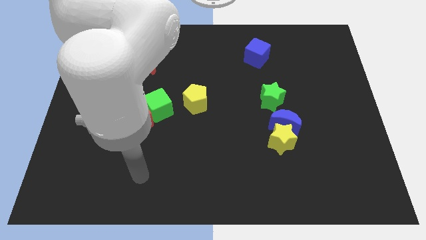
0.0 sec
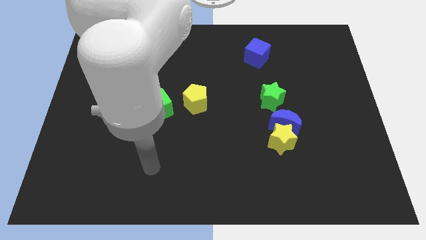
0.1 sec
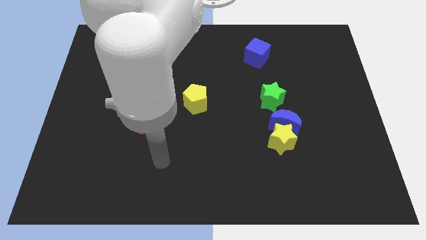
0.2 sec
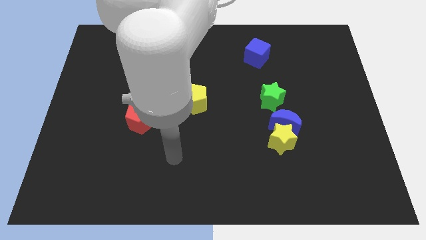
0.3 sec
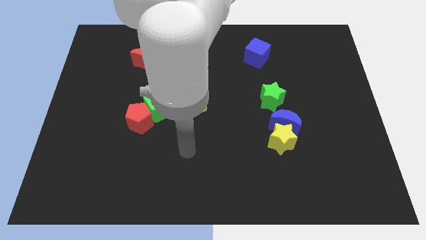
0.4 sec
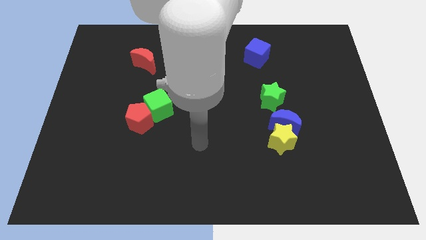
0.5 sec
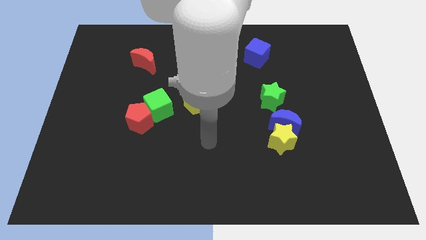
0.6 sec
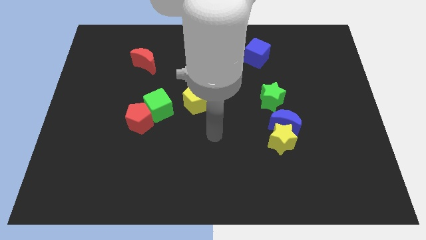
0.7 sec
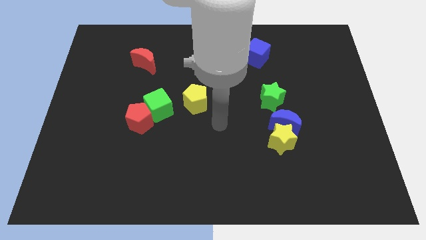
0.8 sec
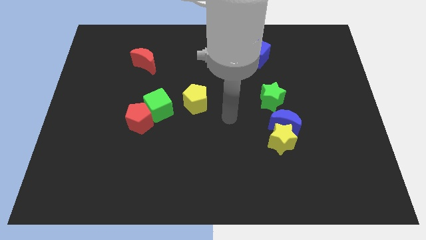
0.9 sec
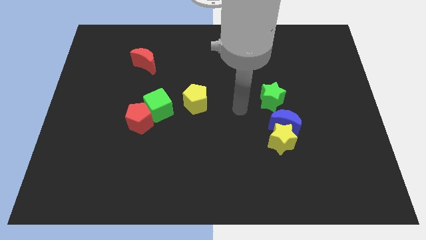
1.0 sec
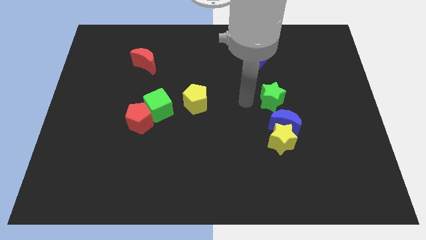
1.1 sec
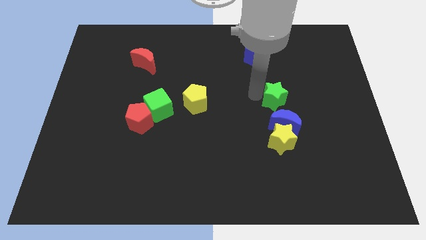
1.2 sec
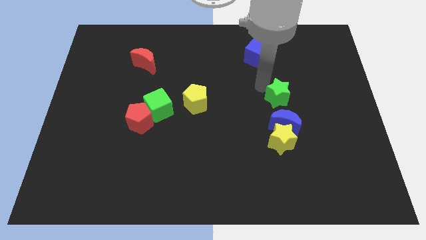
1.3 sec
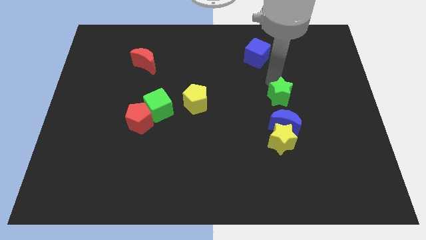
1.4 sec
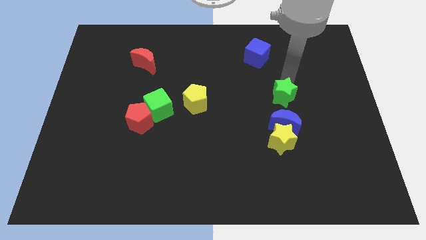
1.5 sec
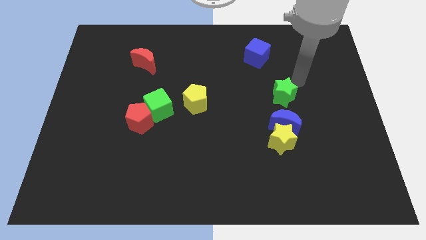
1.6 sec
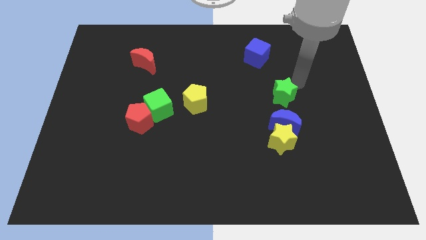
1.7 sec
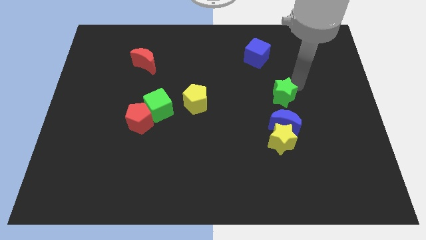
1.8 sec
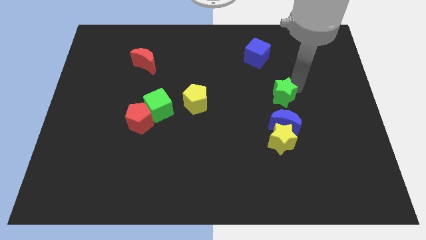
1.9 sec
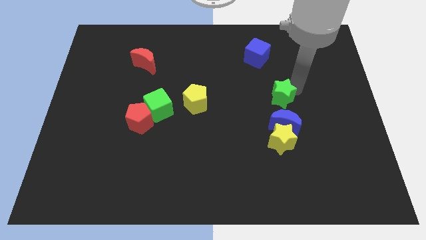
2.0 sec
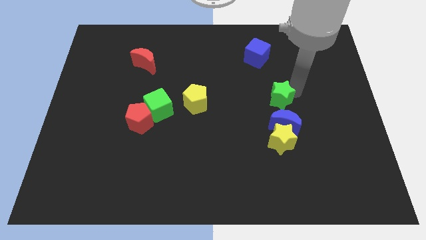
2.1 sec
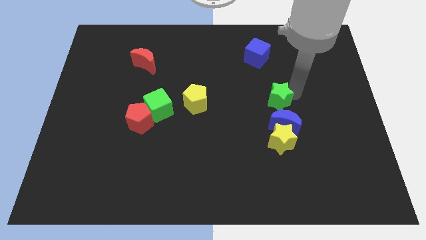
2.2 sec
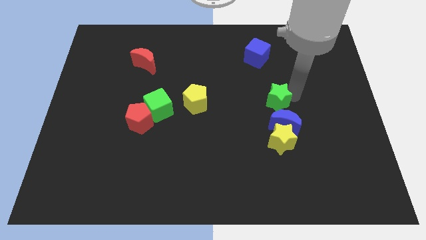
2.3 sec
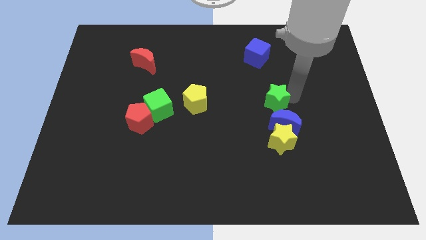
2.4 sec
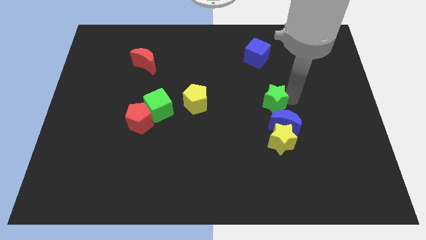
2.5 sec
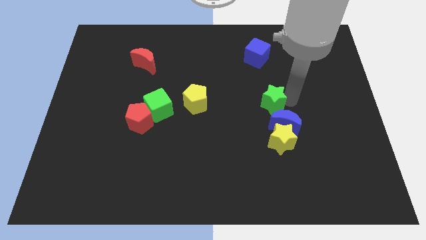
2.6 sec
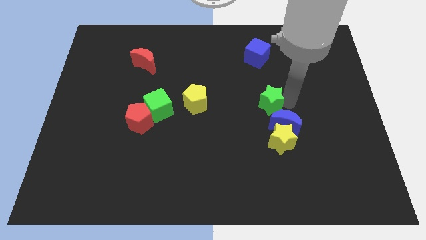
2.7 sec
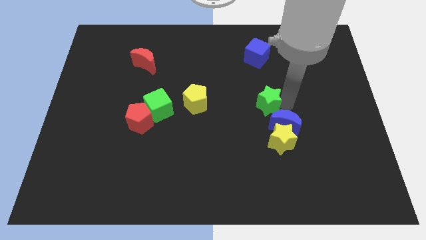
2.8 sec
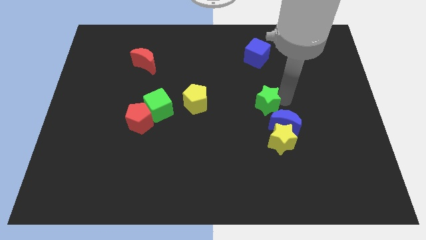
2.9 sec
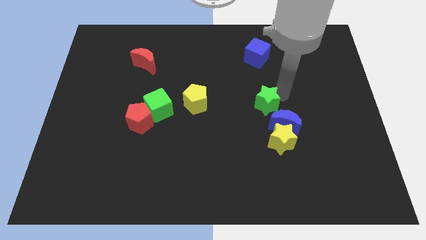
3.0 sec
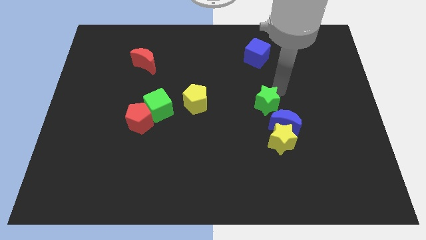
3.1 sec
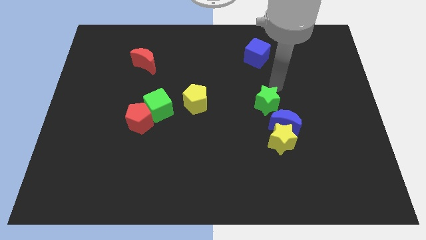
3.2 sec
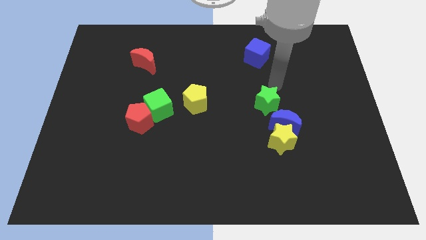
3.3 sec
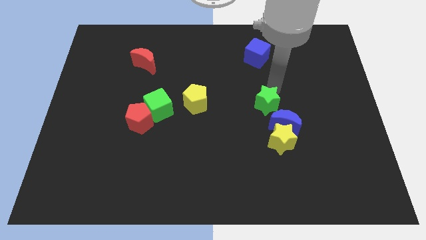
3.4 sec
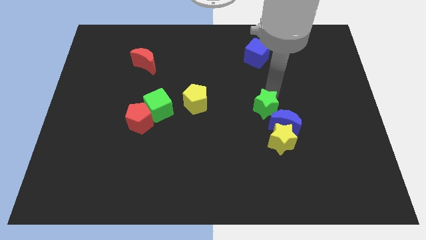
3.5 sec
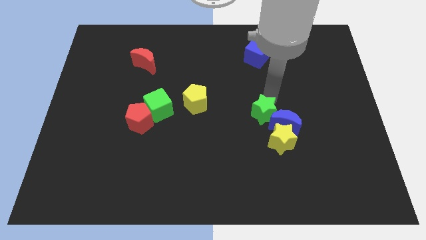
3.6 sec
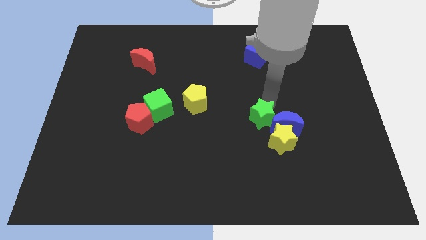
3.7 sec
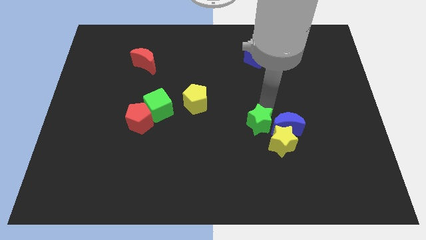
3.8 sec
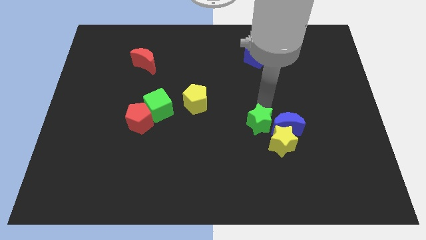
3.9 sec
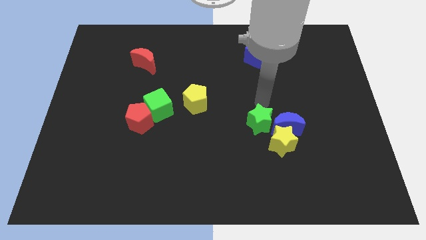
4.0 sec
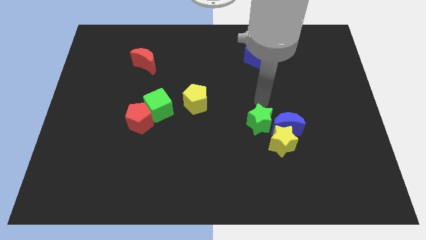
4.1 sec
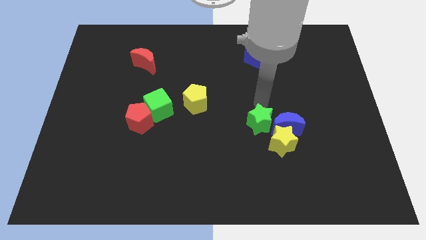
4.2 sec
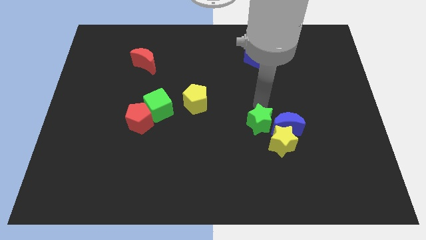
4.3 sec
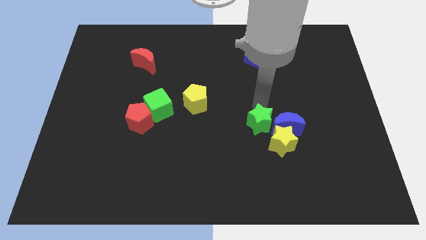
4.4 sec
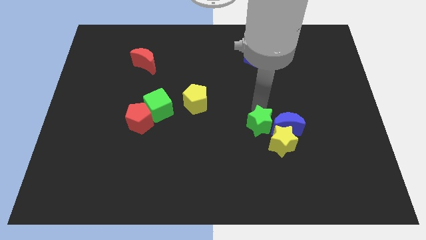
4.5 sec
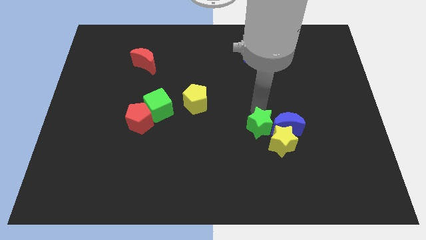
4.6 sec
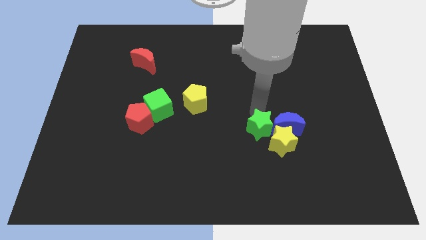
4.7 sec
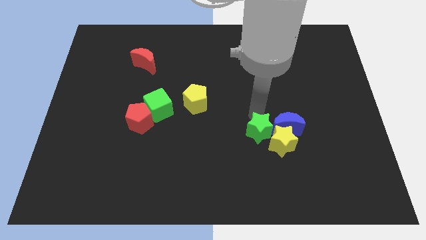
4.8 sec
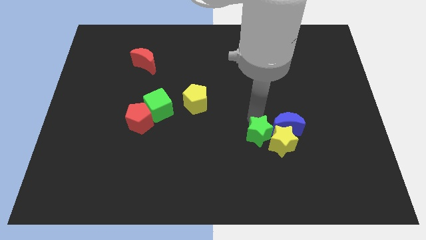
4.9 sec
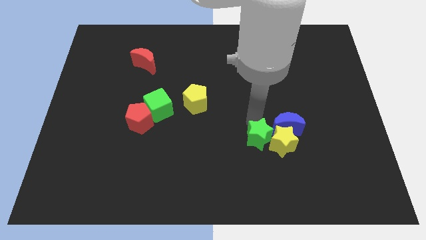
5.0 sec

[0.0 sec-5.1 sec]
push the green star to the bottom left of the yellow star

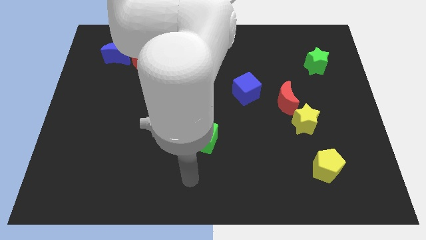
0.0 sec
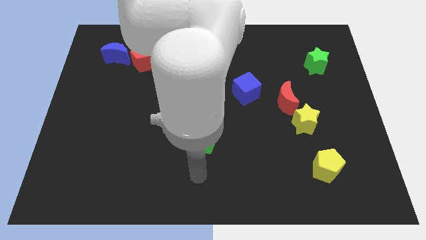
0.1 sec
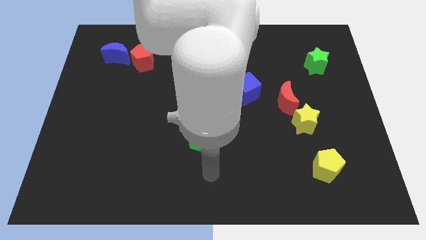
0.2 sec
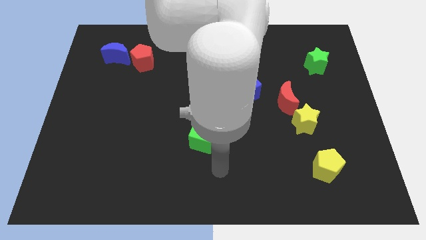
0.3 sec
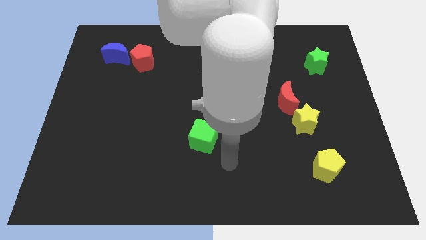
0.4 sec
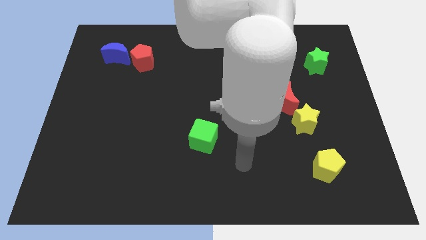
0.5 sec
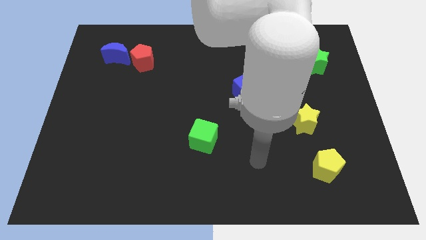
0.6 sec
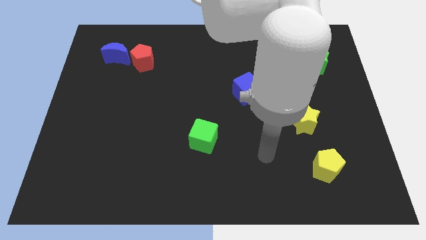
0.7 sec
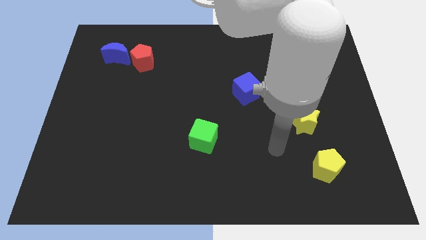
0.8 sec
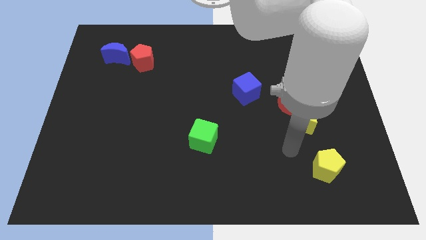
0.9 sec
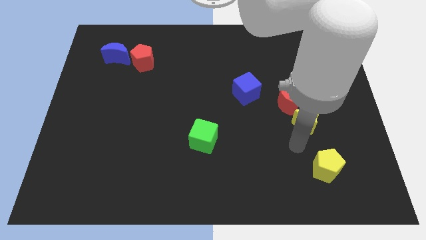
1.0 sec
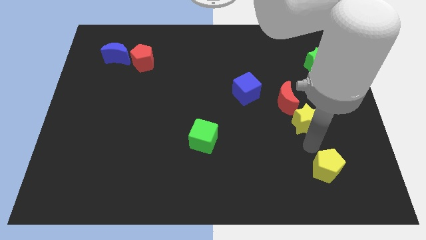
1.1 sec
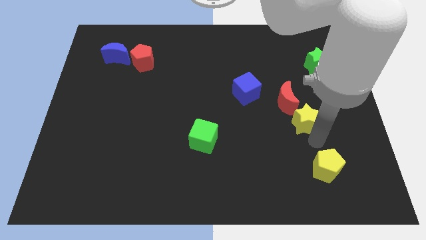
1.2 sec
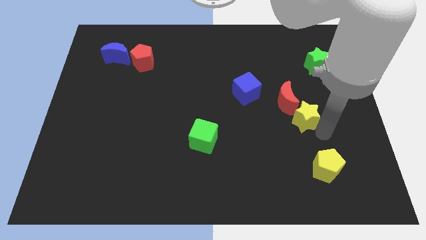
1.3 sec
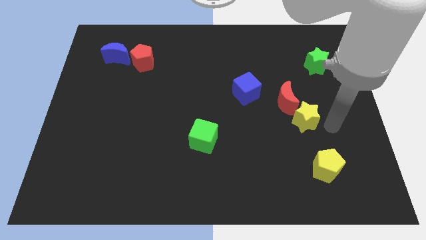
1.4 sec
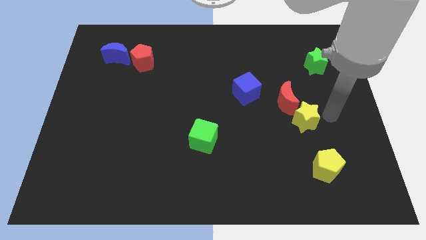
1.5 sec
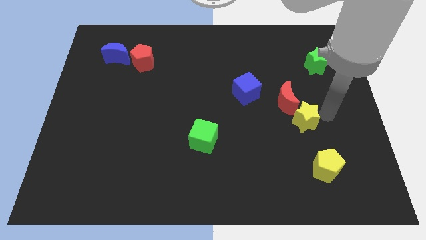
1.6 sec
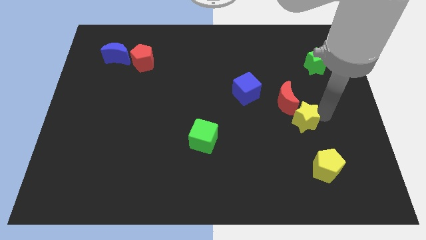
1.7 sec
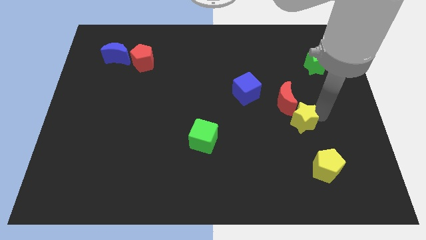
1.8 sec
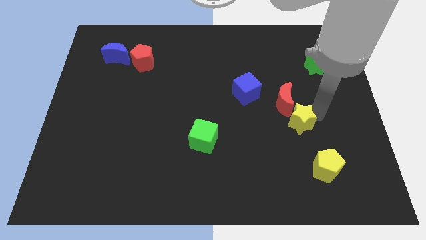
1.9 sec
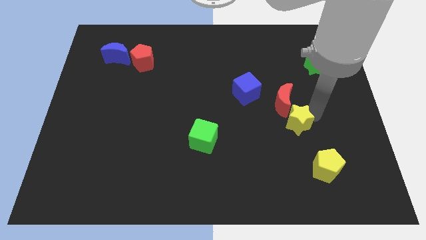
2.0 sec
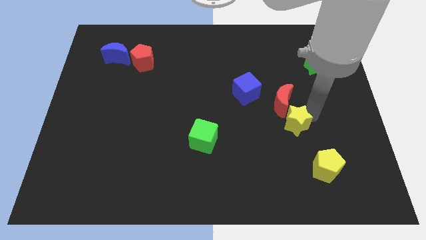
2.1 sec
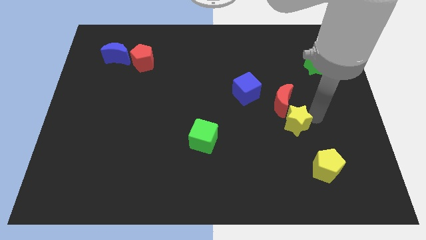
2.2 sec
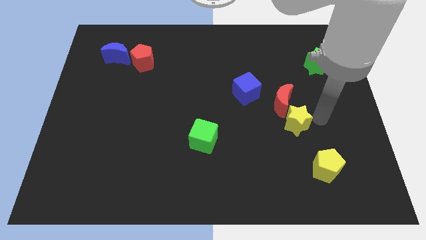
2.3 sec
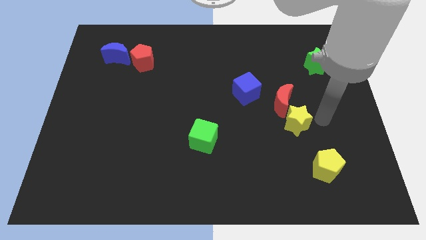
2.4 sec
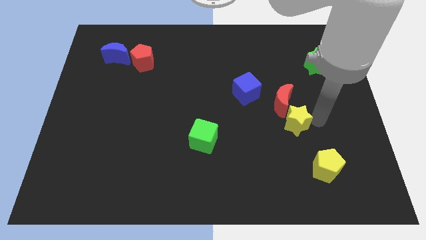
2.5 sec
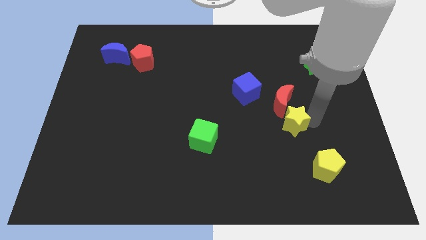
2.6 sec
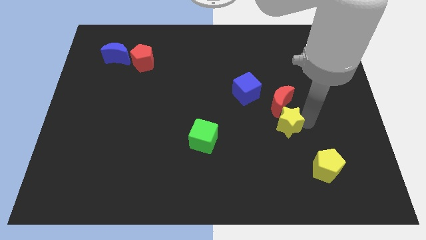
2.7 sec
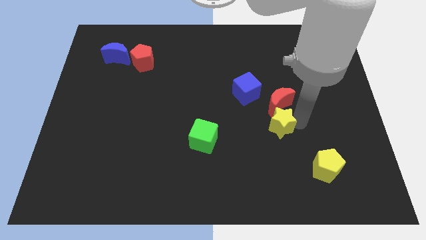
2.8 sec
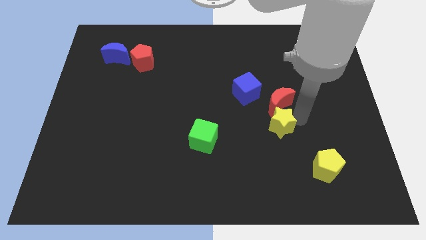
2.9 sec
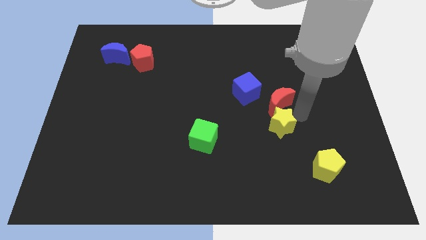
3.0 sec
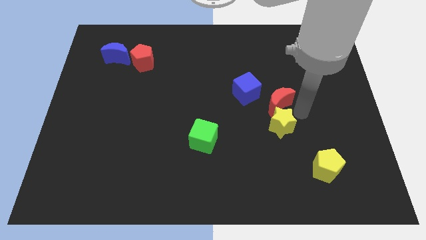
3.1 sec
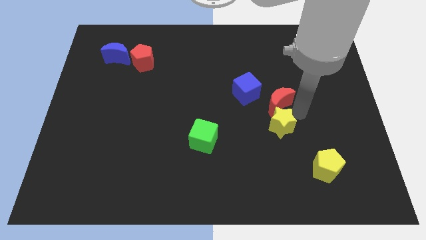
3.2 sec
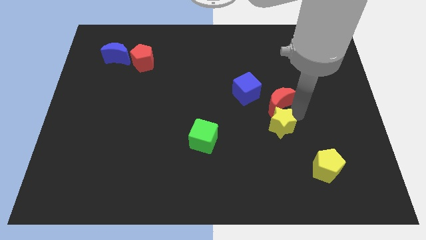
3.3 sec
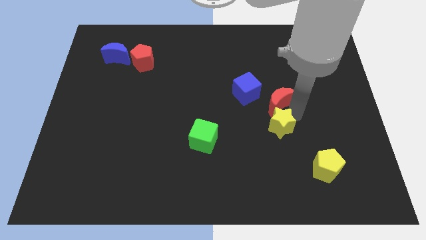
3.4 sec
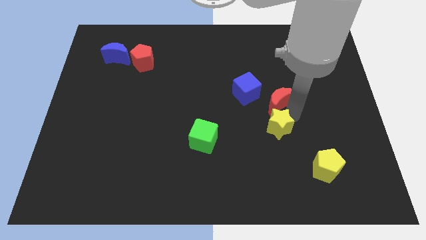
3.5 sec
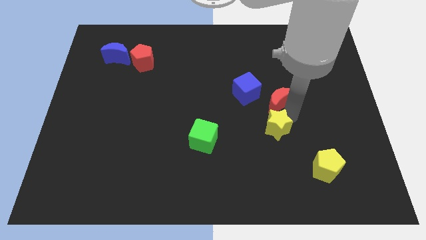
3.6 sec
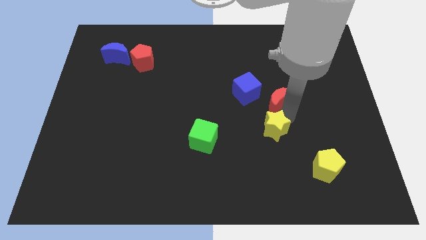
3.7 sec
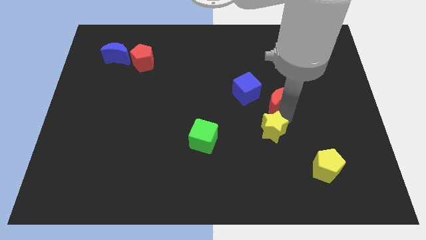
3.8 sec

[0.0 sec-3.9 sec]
move the yellow star right of the green cube
